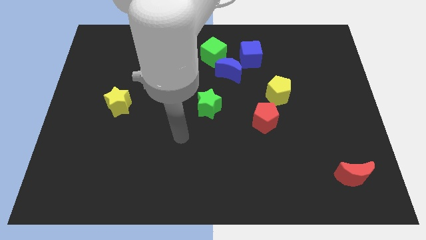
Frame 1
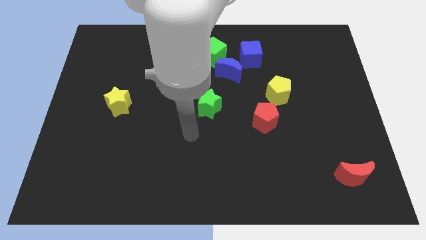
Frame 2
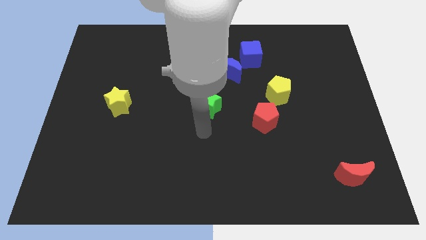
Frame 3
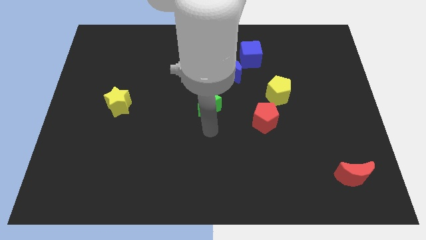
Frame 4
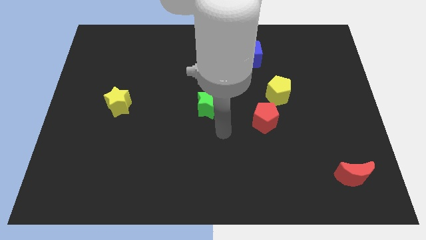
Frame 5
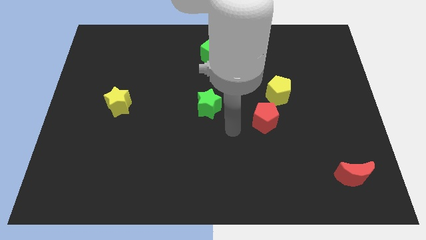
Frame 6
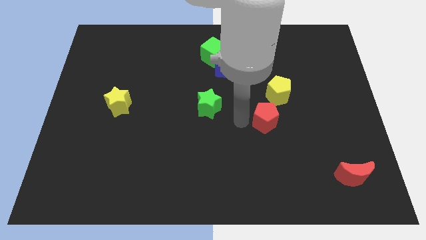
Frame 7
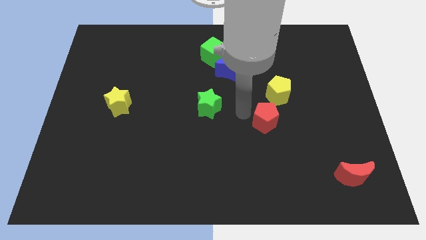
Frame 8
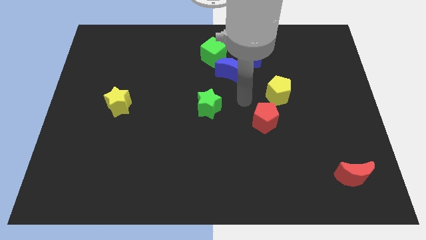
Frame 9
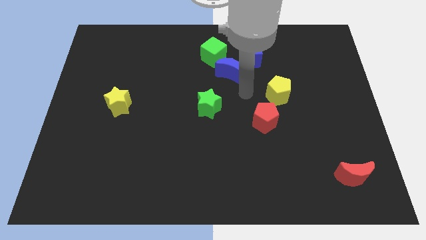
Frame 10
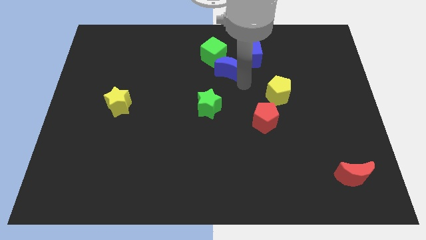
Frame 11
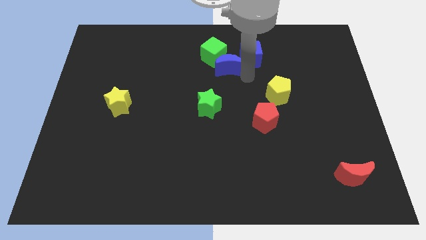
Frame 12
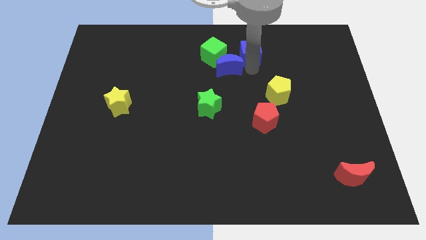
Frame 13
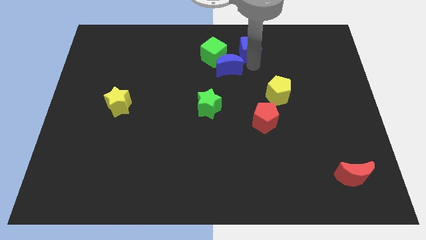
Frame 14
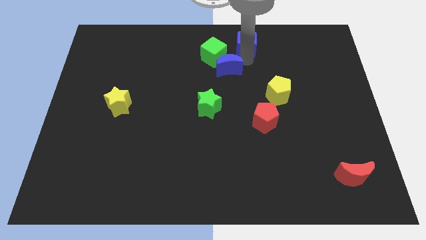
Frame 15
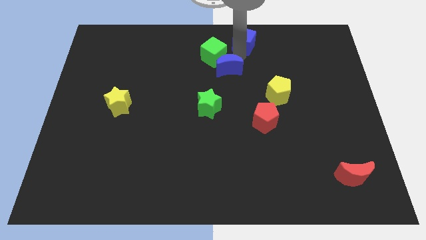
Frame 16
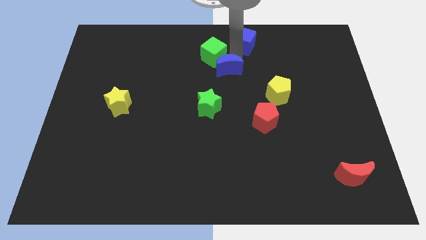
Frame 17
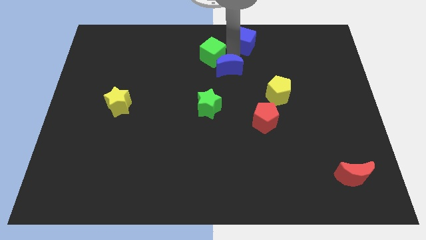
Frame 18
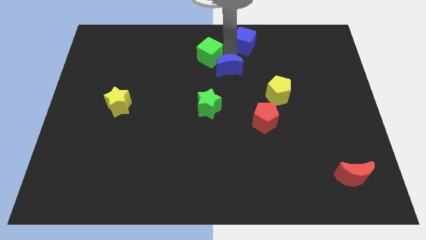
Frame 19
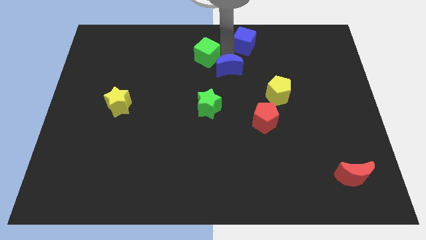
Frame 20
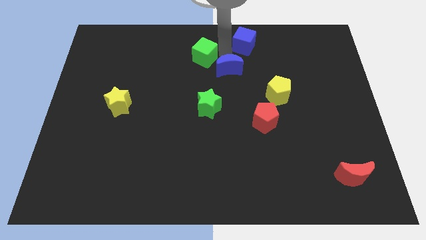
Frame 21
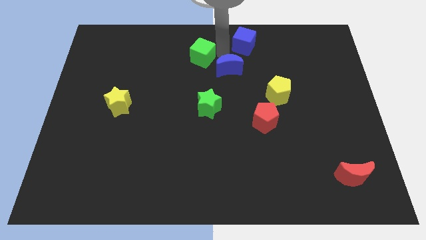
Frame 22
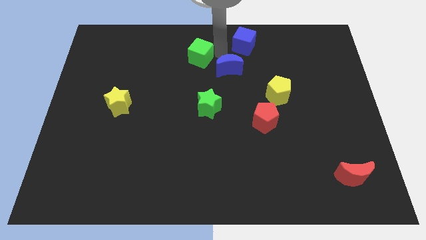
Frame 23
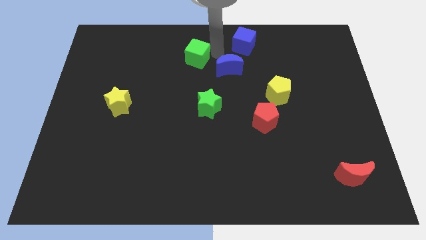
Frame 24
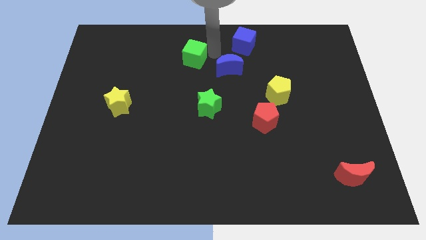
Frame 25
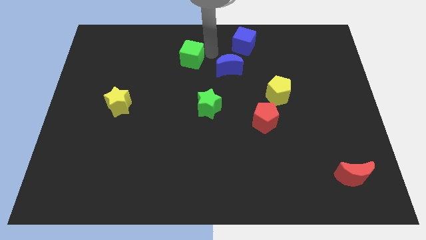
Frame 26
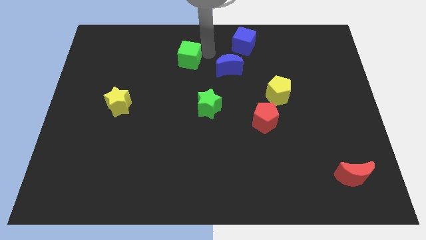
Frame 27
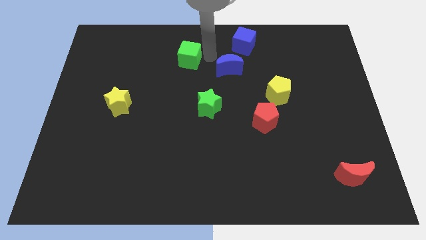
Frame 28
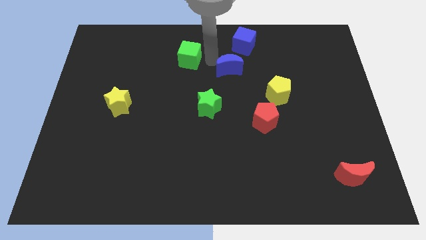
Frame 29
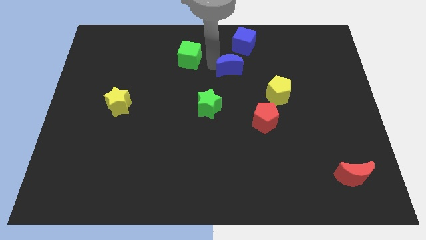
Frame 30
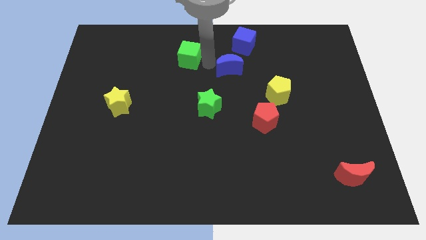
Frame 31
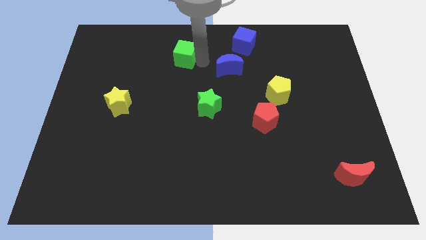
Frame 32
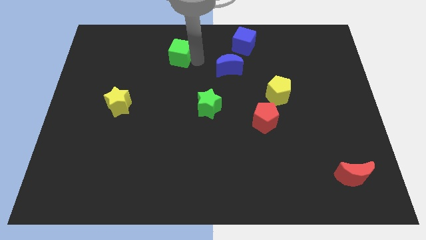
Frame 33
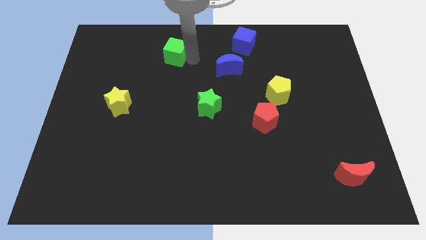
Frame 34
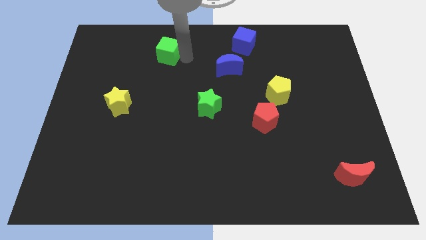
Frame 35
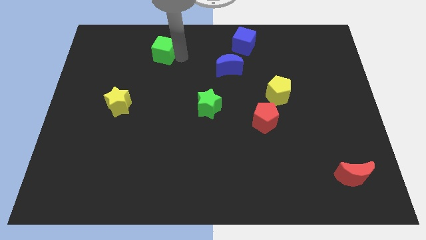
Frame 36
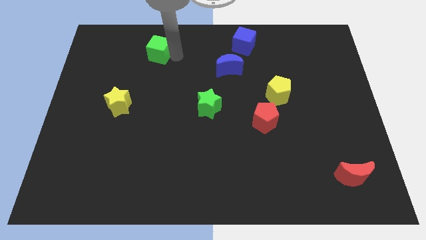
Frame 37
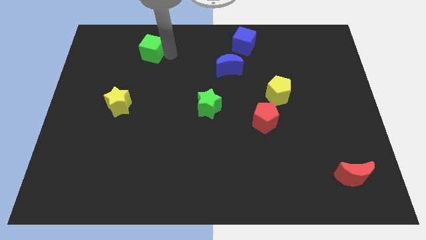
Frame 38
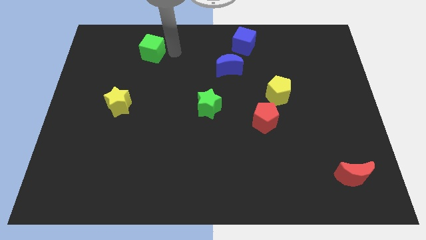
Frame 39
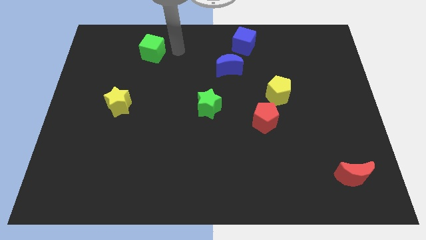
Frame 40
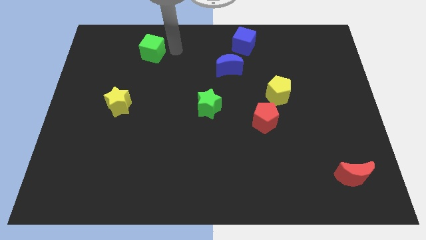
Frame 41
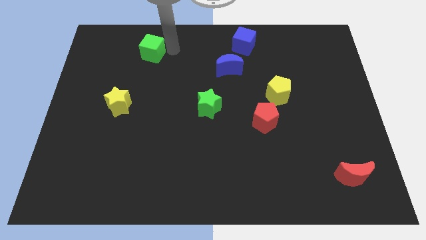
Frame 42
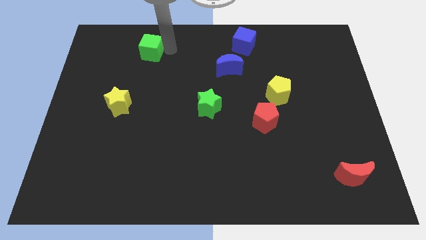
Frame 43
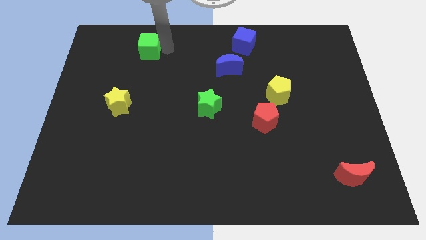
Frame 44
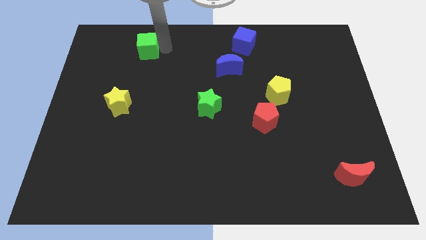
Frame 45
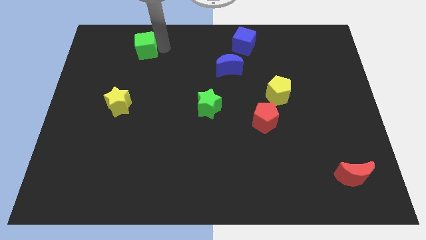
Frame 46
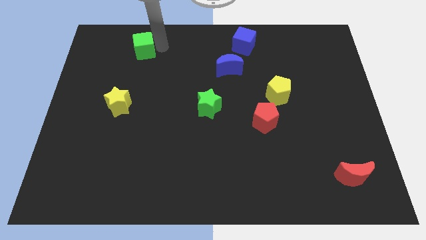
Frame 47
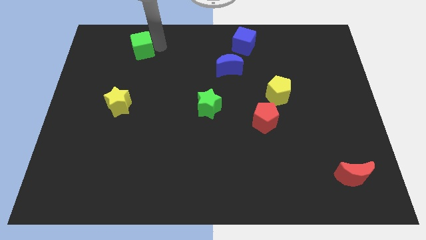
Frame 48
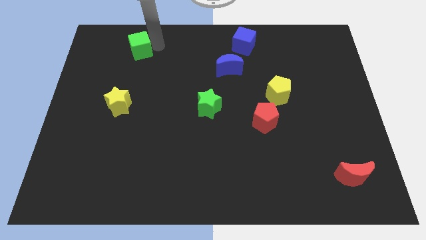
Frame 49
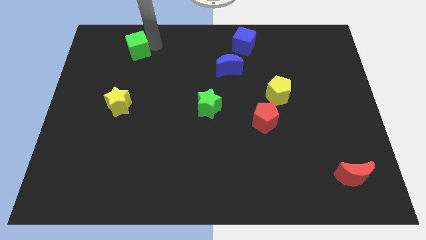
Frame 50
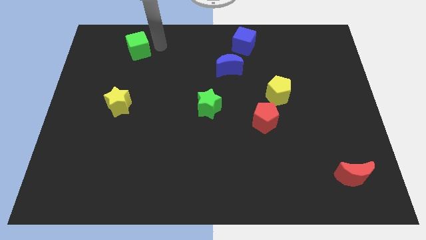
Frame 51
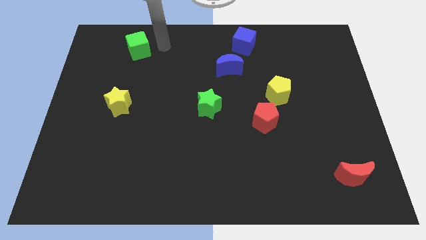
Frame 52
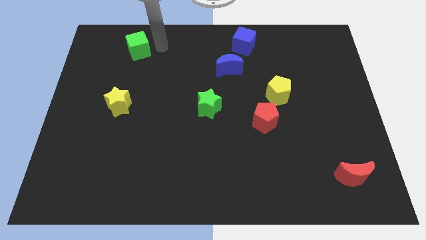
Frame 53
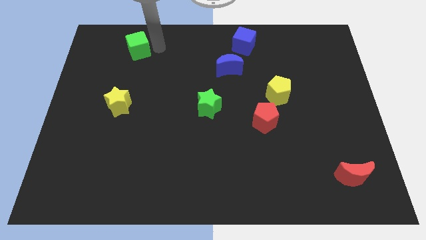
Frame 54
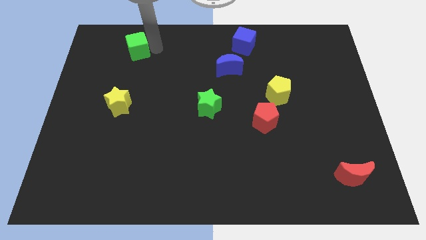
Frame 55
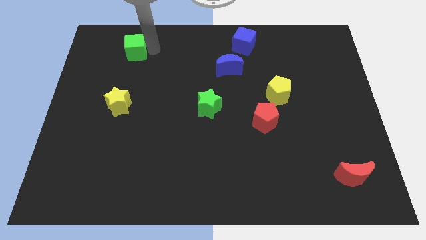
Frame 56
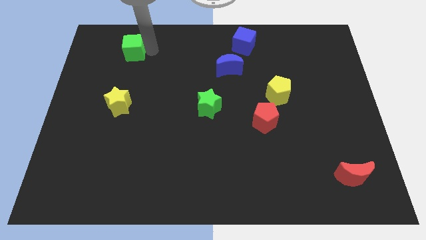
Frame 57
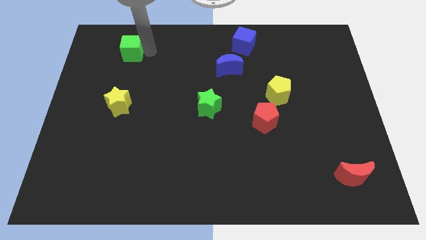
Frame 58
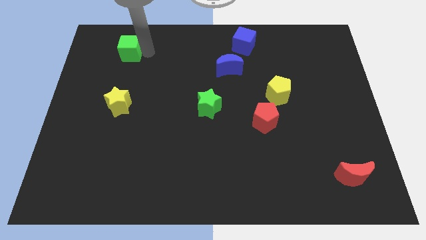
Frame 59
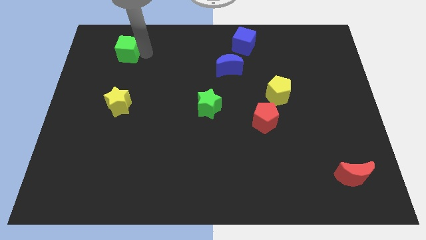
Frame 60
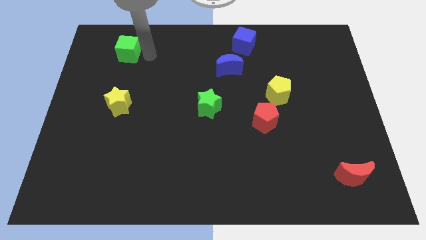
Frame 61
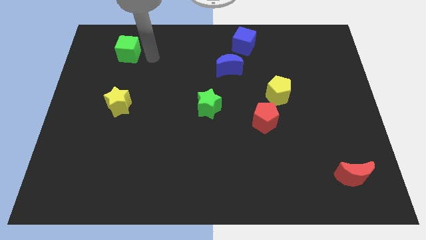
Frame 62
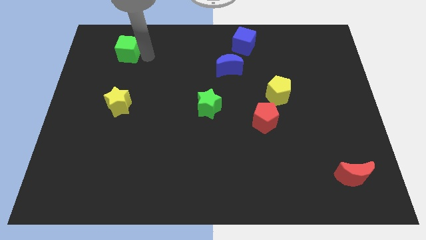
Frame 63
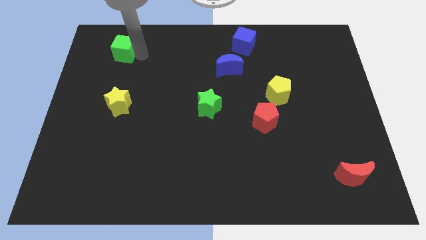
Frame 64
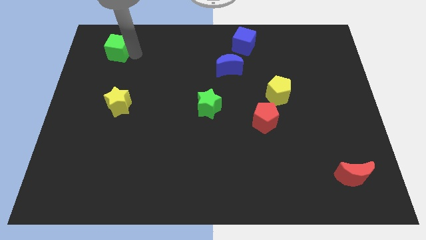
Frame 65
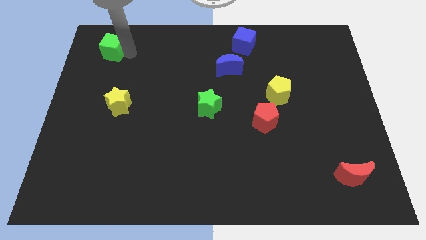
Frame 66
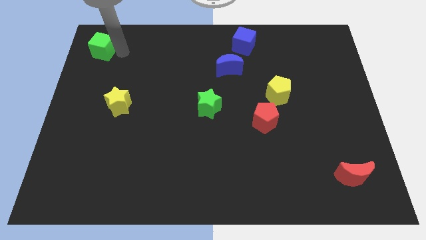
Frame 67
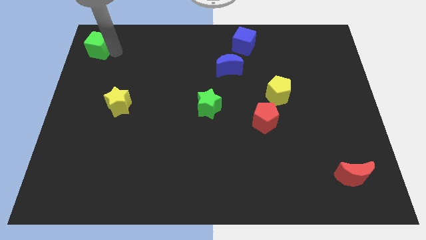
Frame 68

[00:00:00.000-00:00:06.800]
slide the green cube to the top left of the board
